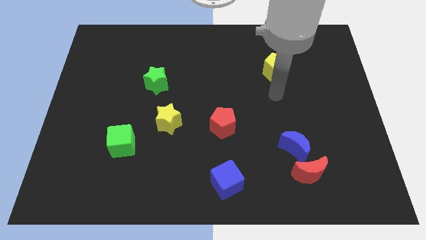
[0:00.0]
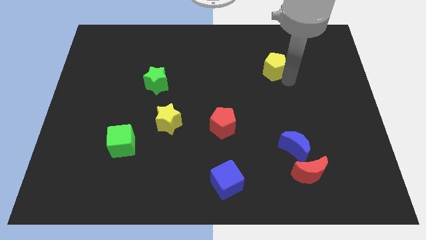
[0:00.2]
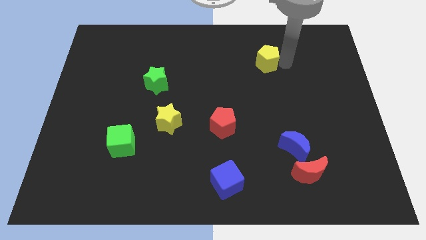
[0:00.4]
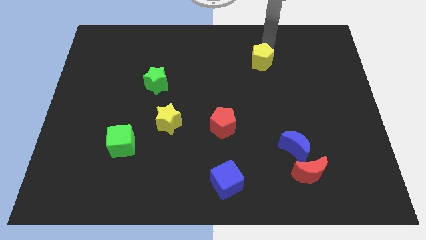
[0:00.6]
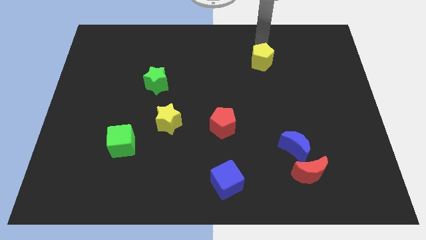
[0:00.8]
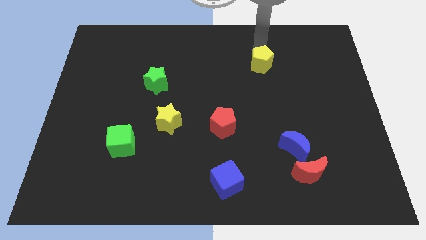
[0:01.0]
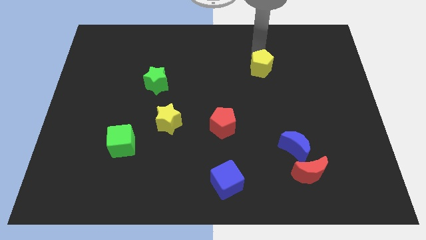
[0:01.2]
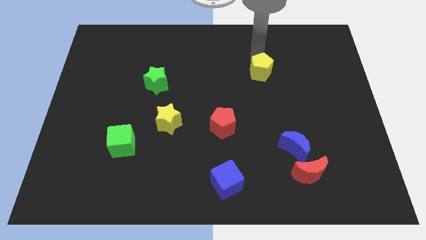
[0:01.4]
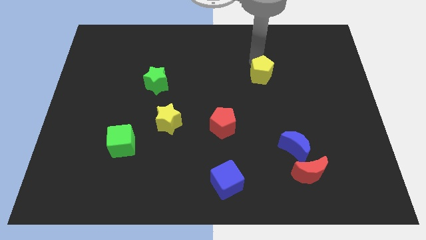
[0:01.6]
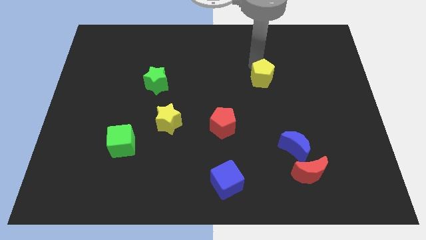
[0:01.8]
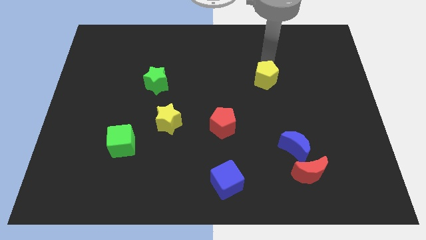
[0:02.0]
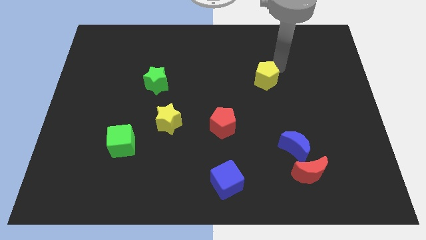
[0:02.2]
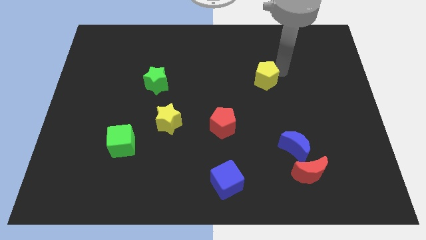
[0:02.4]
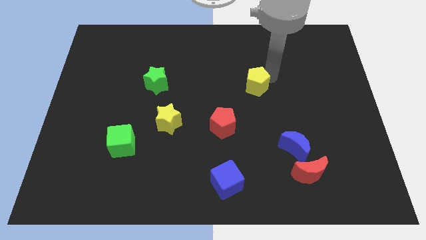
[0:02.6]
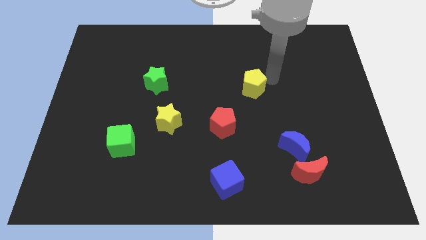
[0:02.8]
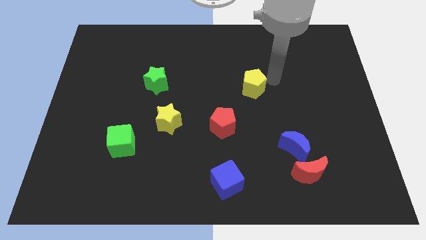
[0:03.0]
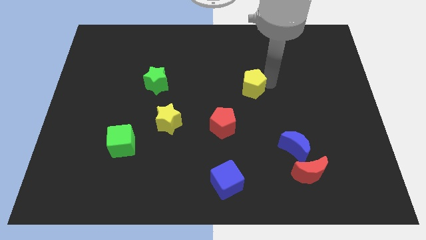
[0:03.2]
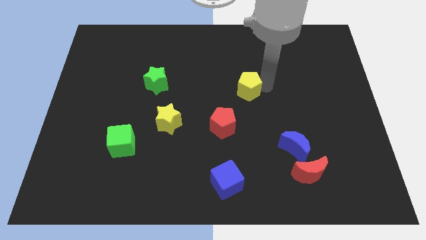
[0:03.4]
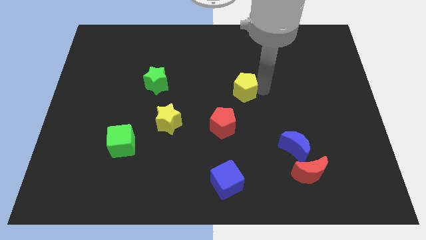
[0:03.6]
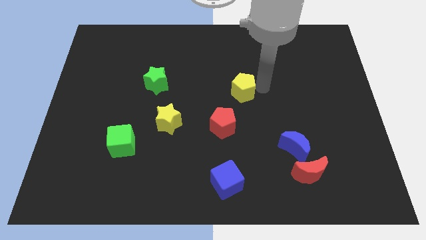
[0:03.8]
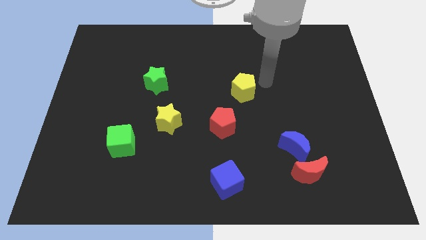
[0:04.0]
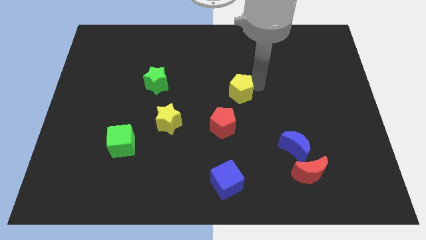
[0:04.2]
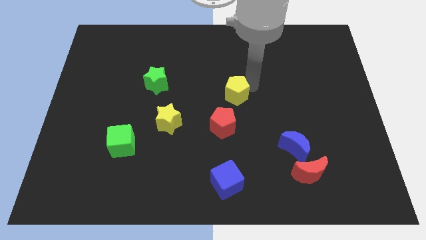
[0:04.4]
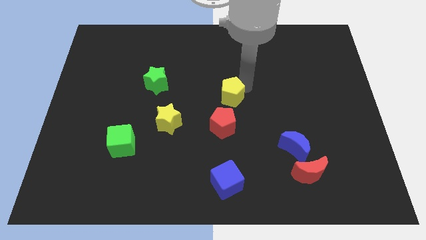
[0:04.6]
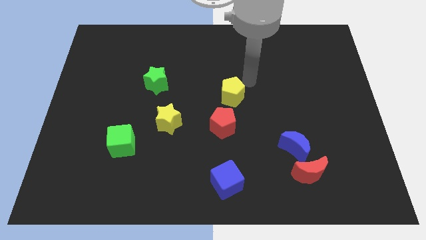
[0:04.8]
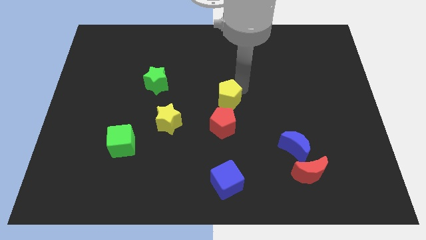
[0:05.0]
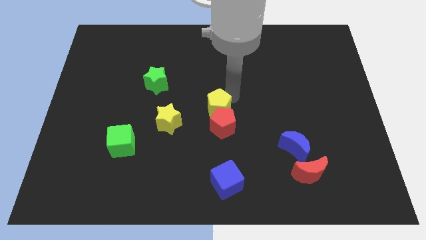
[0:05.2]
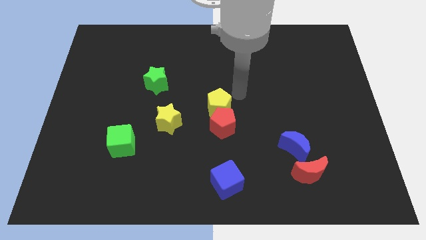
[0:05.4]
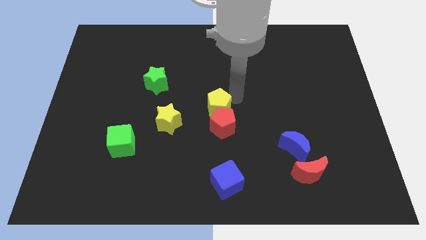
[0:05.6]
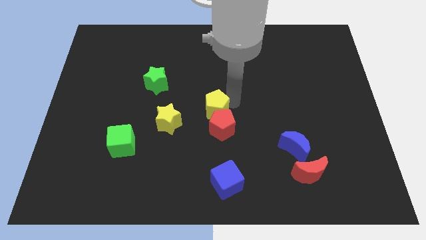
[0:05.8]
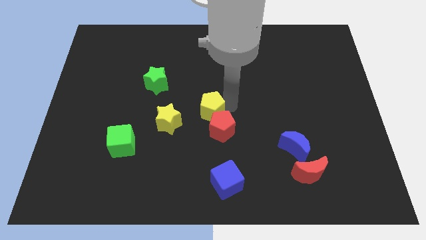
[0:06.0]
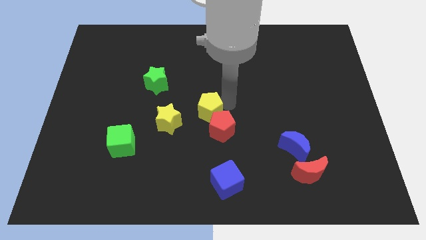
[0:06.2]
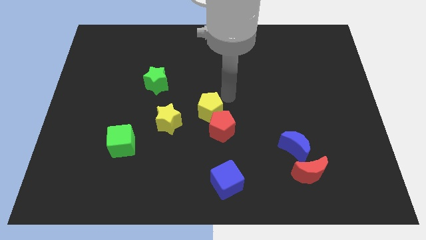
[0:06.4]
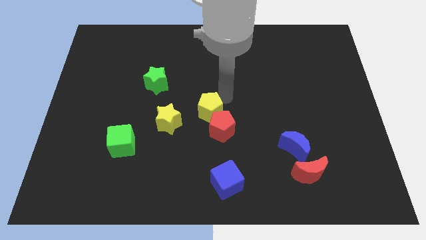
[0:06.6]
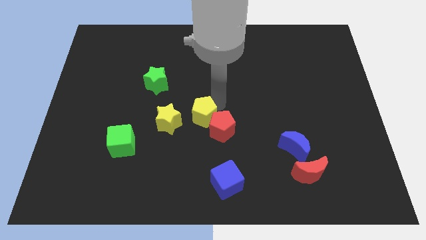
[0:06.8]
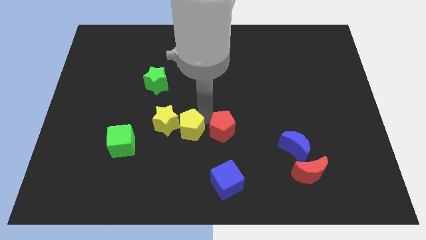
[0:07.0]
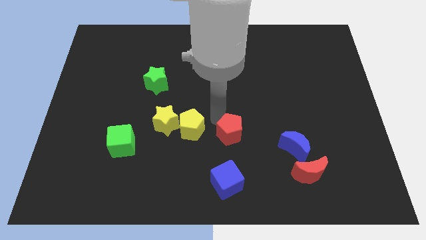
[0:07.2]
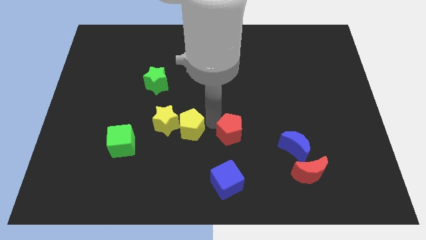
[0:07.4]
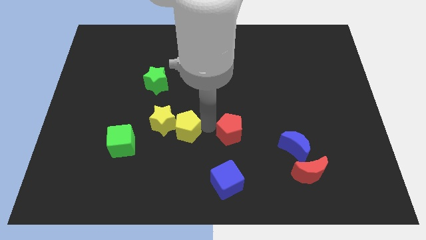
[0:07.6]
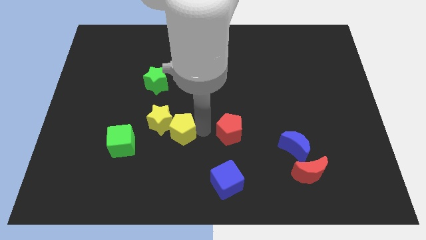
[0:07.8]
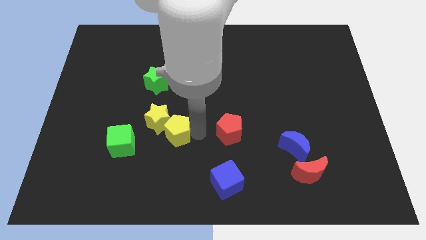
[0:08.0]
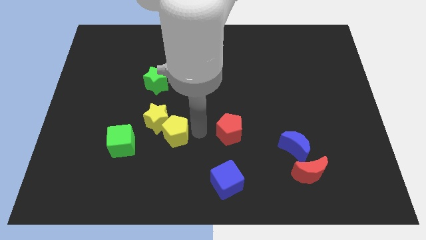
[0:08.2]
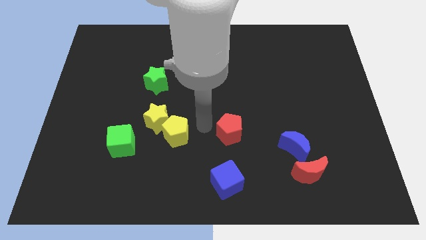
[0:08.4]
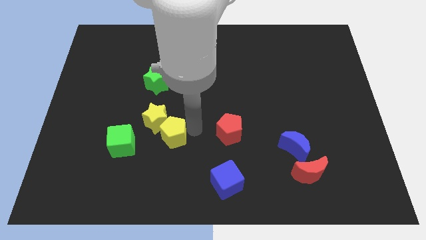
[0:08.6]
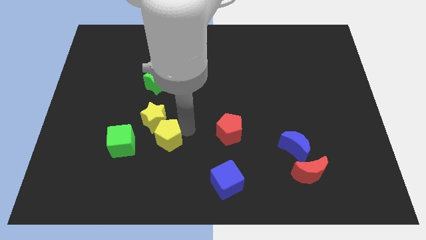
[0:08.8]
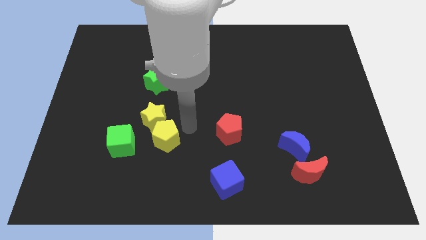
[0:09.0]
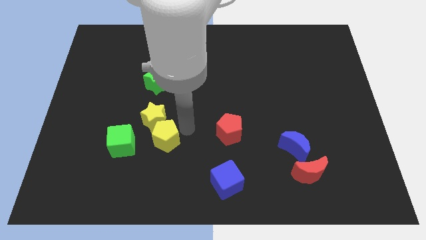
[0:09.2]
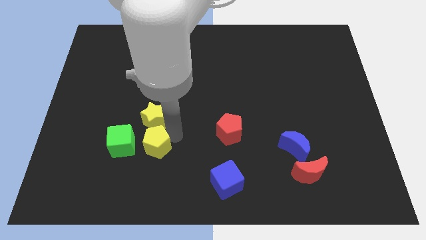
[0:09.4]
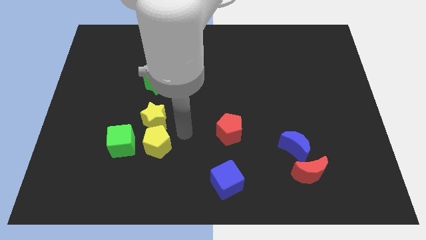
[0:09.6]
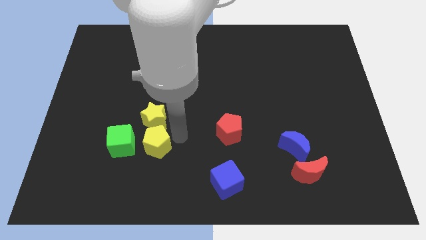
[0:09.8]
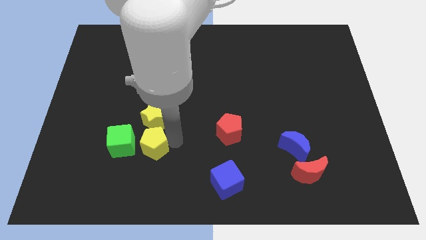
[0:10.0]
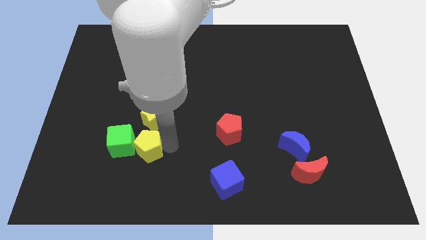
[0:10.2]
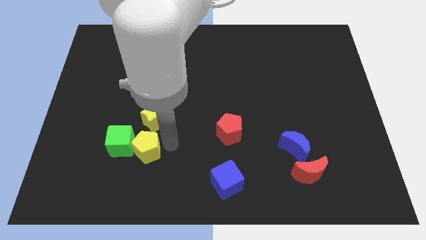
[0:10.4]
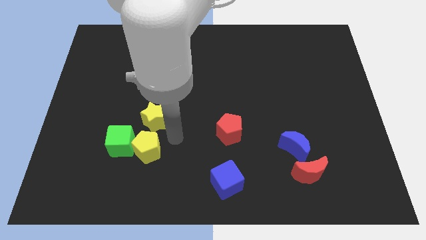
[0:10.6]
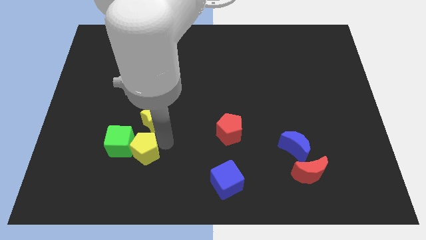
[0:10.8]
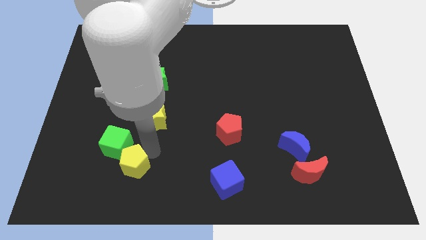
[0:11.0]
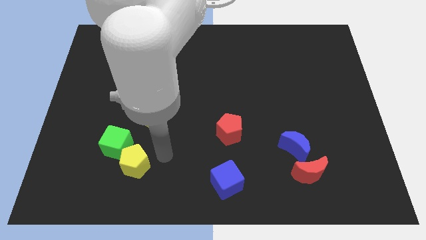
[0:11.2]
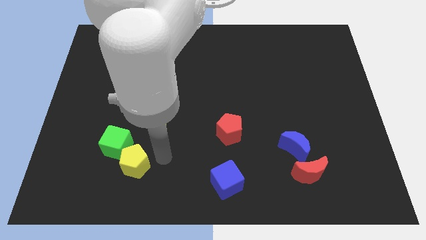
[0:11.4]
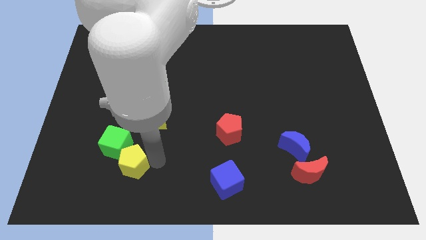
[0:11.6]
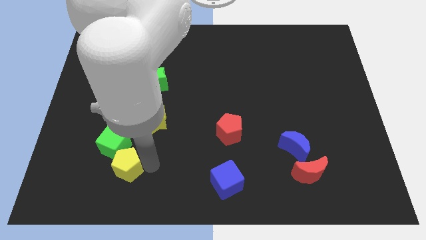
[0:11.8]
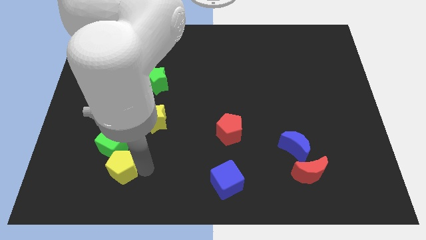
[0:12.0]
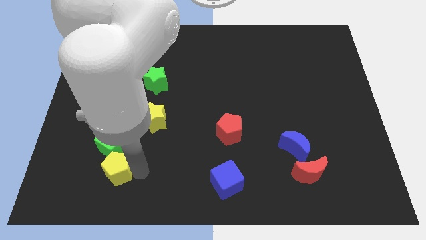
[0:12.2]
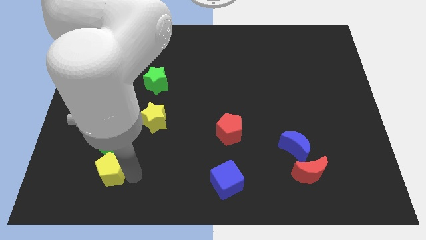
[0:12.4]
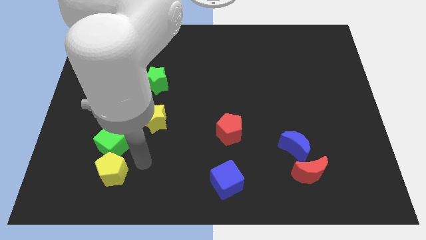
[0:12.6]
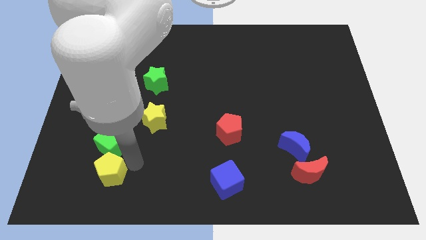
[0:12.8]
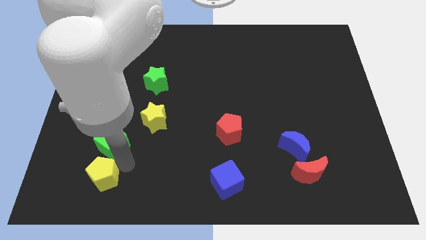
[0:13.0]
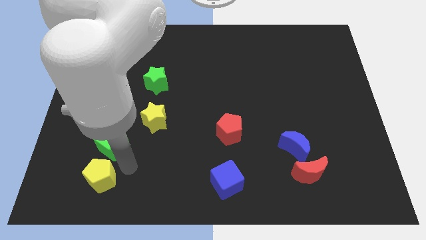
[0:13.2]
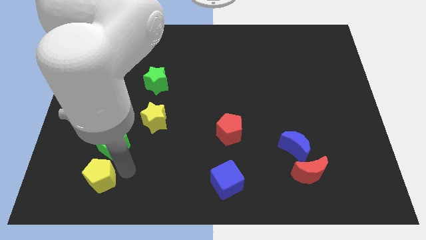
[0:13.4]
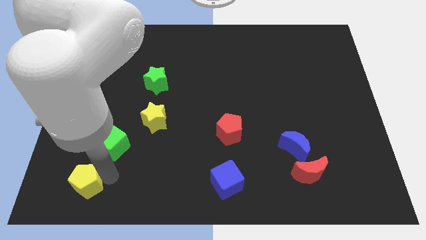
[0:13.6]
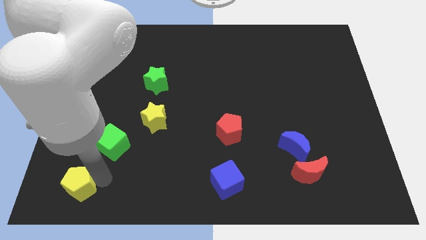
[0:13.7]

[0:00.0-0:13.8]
slide the yellow pentagon to the bottom left corner
